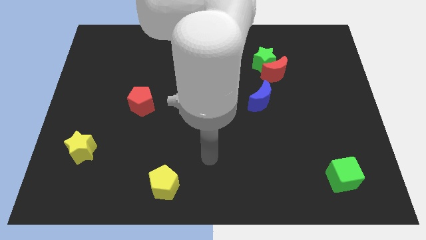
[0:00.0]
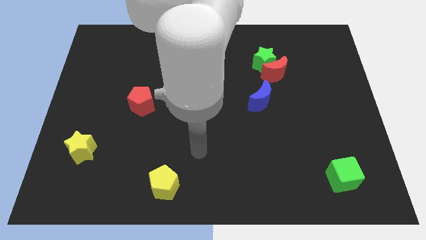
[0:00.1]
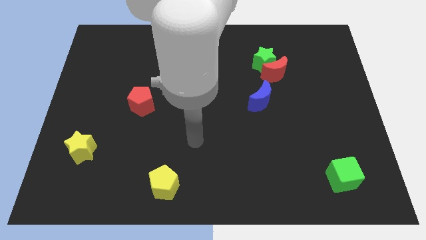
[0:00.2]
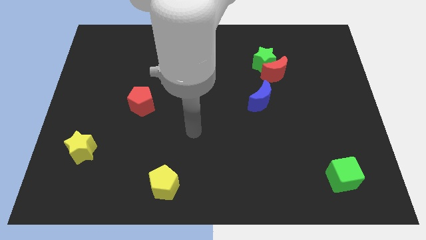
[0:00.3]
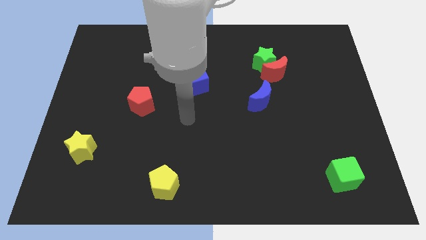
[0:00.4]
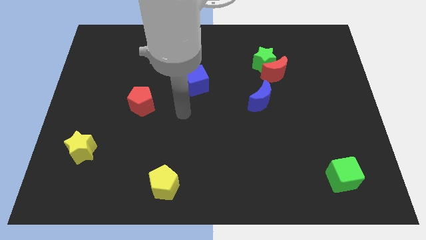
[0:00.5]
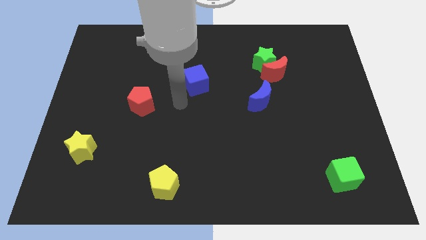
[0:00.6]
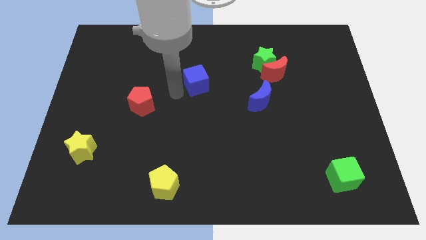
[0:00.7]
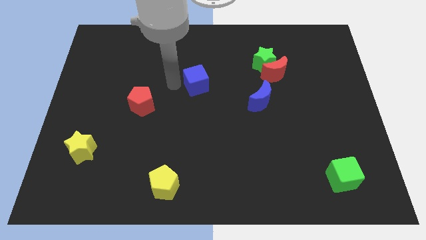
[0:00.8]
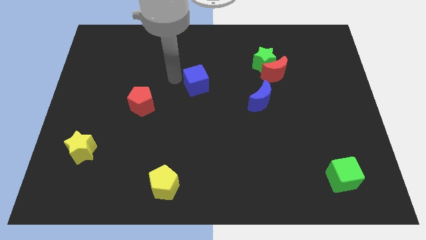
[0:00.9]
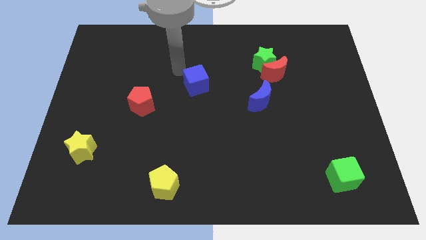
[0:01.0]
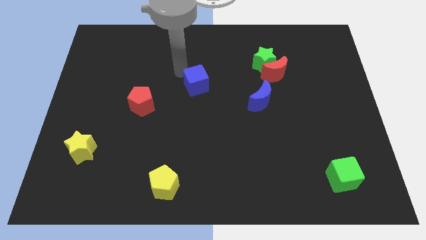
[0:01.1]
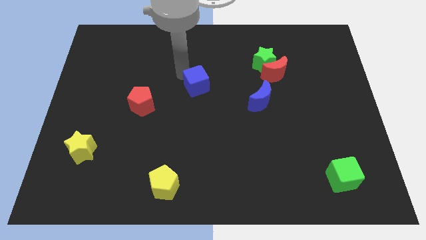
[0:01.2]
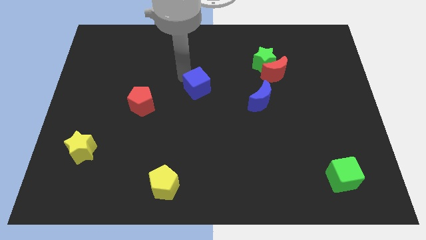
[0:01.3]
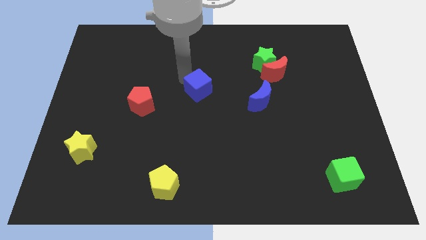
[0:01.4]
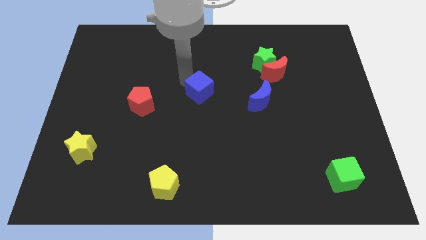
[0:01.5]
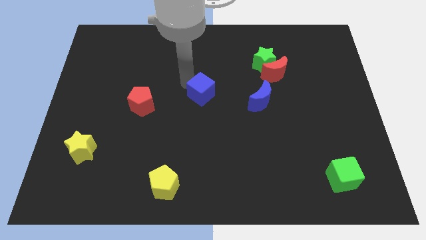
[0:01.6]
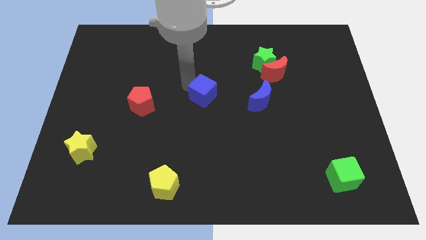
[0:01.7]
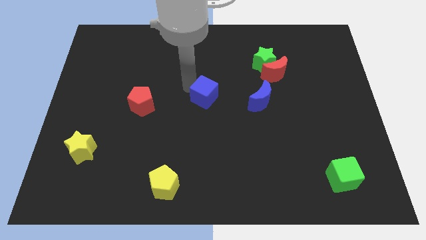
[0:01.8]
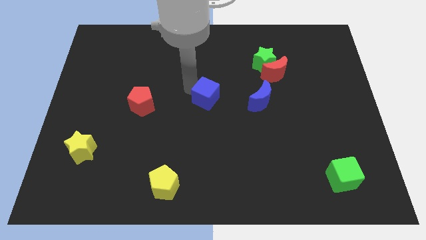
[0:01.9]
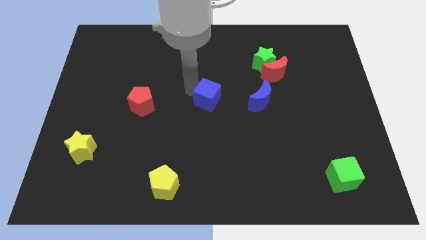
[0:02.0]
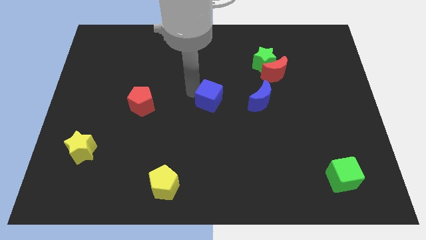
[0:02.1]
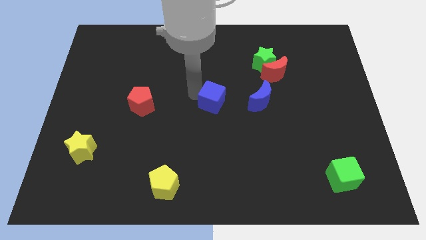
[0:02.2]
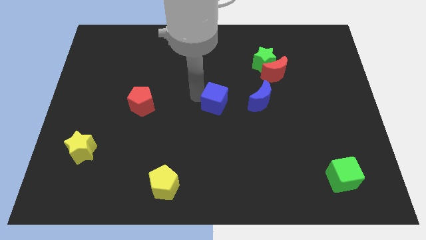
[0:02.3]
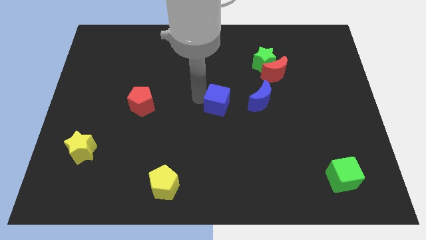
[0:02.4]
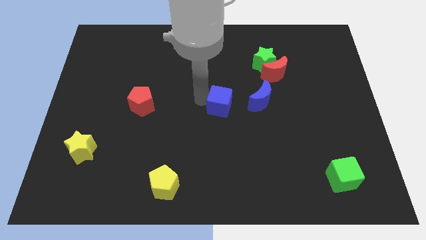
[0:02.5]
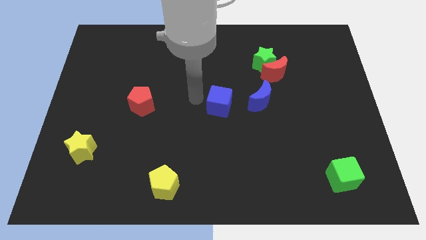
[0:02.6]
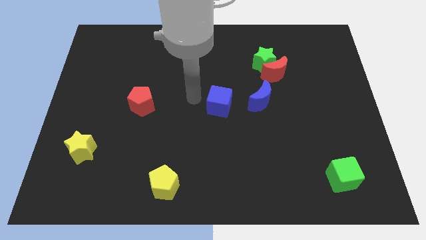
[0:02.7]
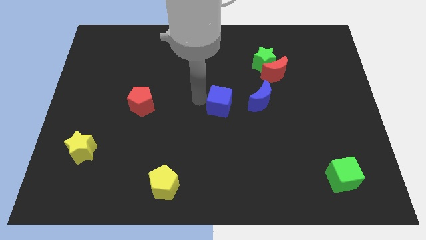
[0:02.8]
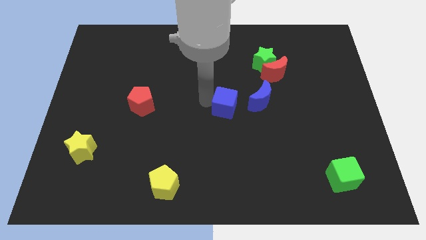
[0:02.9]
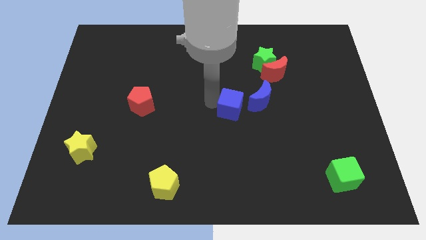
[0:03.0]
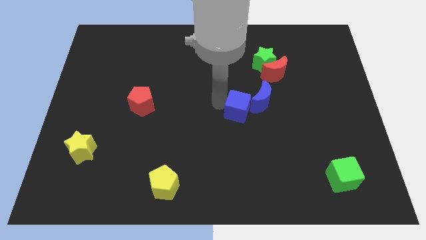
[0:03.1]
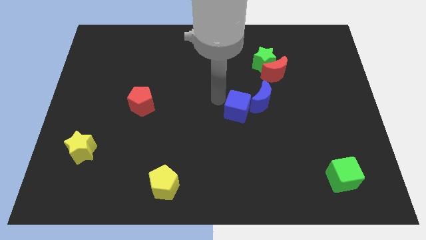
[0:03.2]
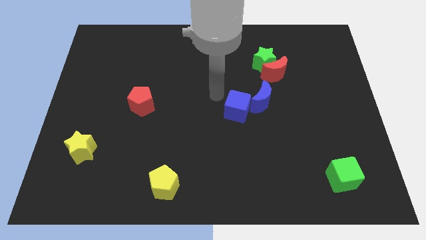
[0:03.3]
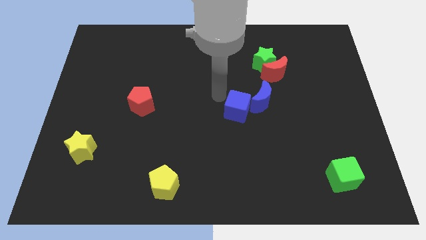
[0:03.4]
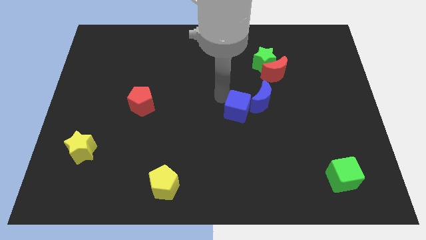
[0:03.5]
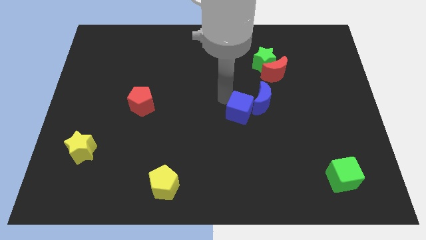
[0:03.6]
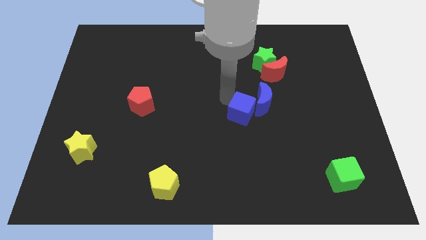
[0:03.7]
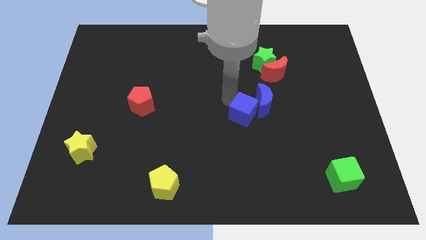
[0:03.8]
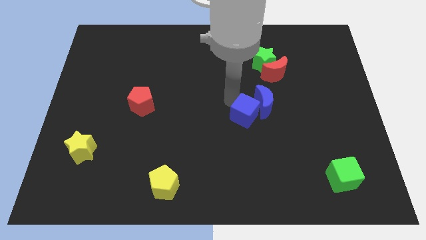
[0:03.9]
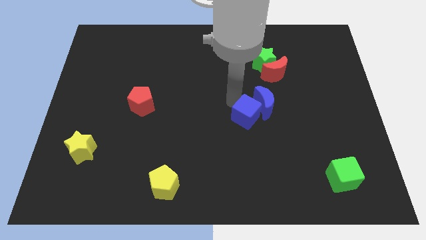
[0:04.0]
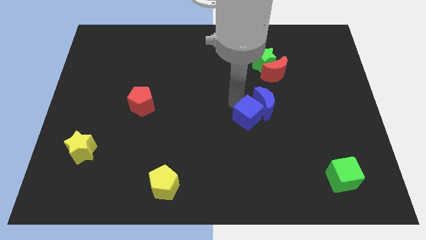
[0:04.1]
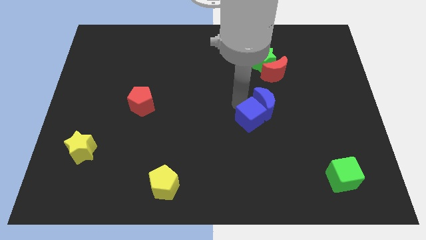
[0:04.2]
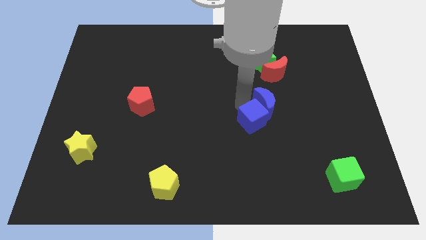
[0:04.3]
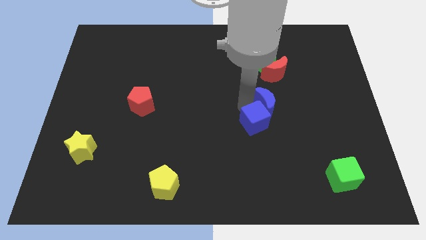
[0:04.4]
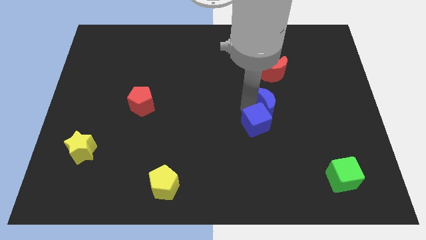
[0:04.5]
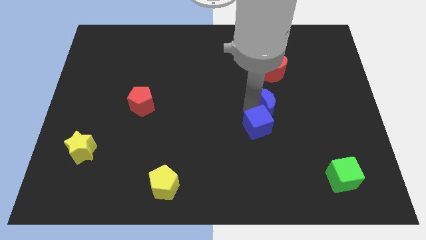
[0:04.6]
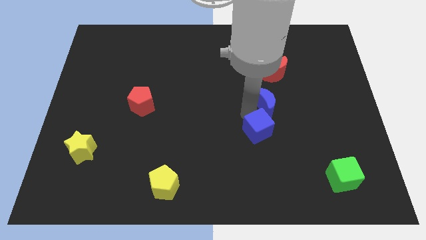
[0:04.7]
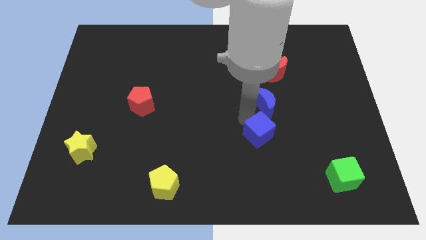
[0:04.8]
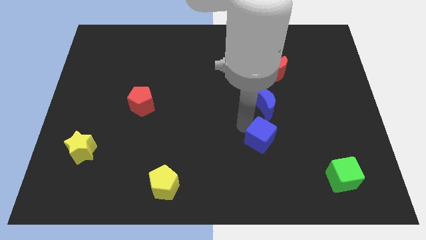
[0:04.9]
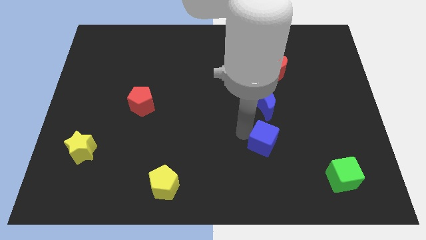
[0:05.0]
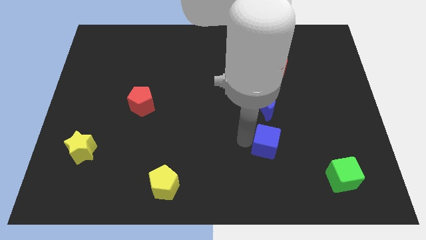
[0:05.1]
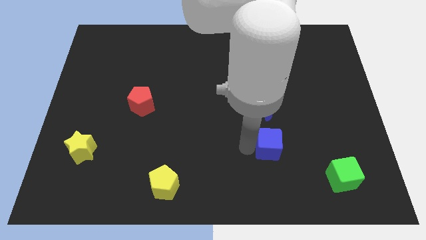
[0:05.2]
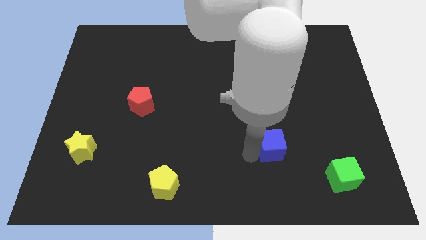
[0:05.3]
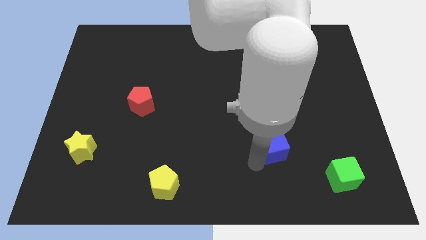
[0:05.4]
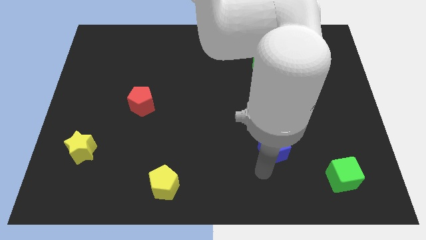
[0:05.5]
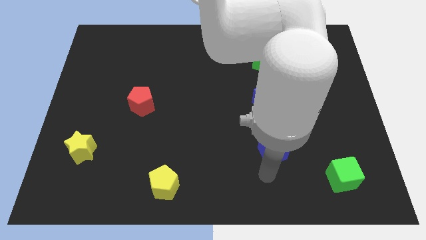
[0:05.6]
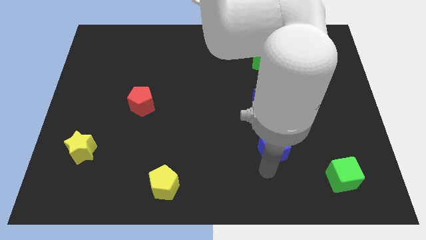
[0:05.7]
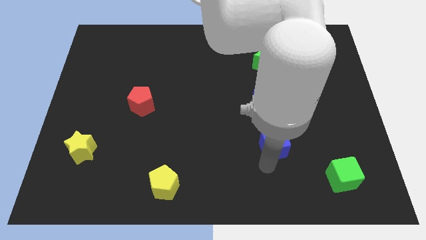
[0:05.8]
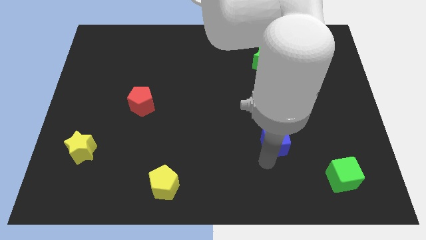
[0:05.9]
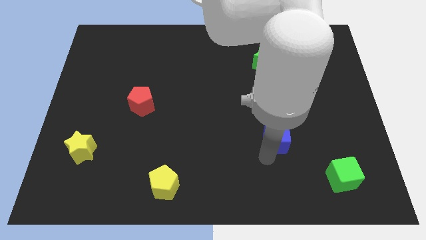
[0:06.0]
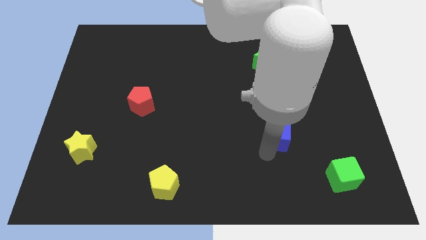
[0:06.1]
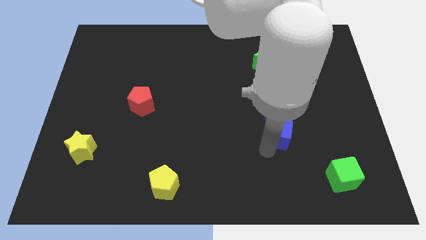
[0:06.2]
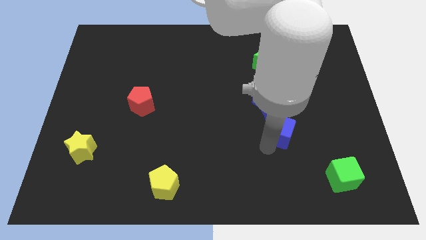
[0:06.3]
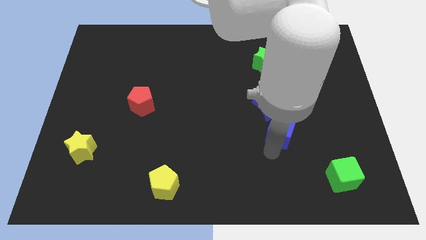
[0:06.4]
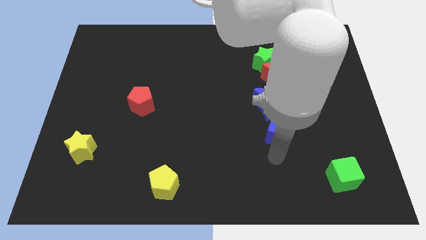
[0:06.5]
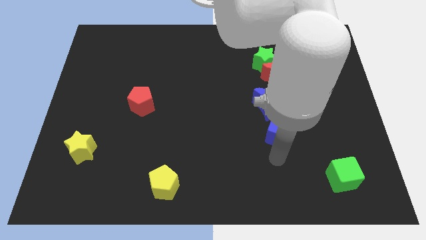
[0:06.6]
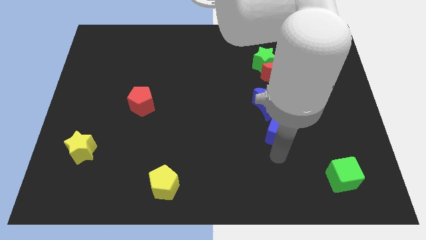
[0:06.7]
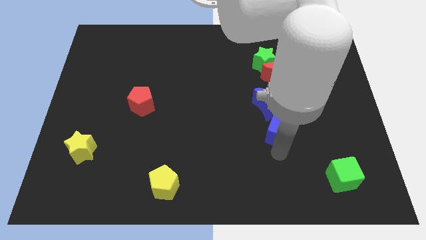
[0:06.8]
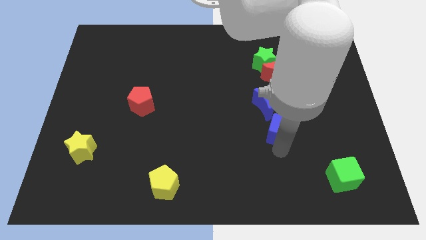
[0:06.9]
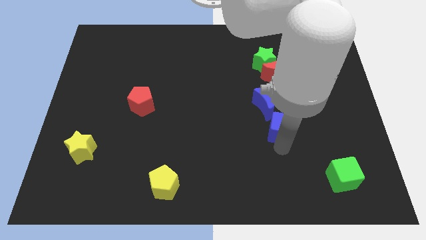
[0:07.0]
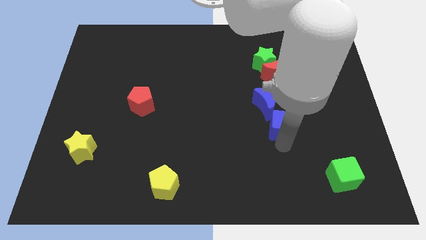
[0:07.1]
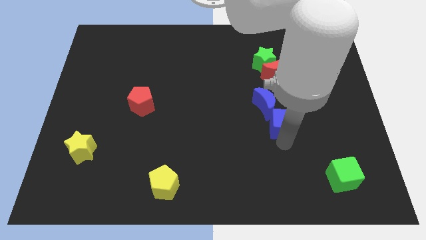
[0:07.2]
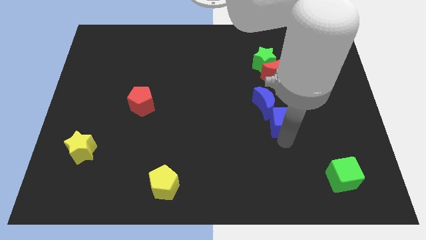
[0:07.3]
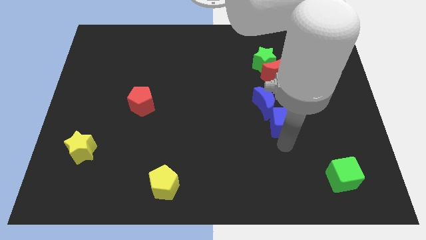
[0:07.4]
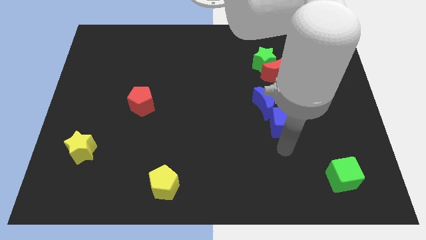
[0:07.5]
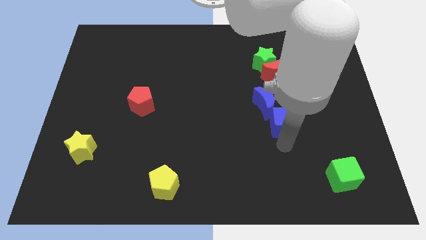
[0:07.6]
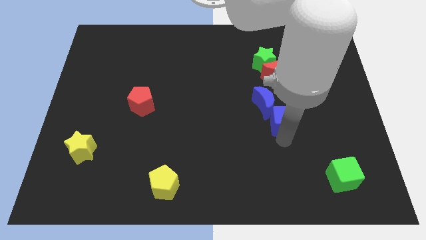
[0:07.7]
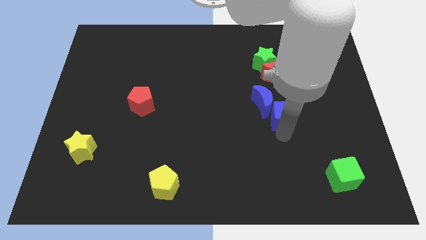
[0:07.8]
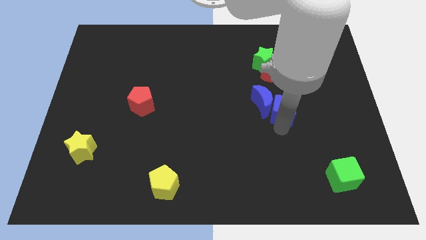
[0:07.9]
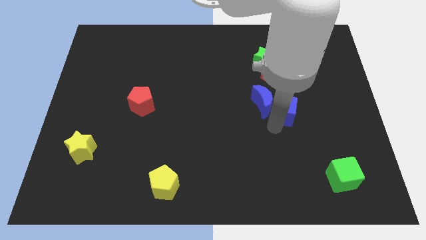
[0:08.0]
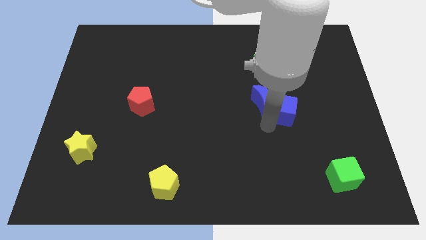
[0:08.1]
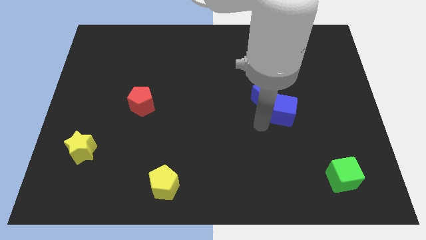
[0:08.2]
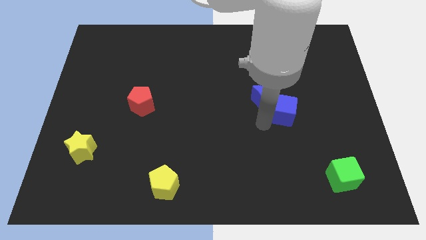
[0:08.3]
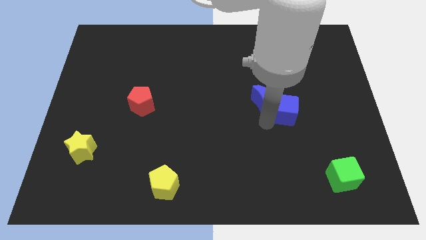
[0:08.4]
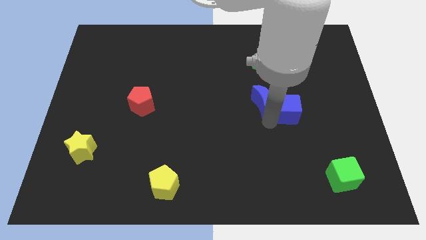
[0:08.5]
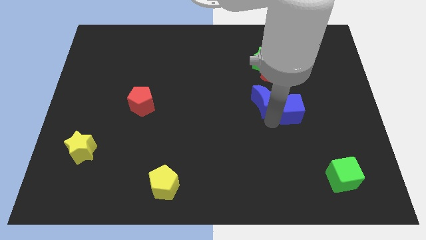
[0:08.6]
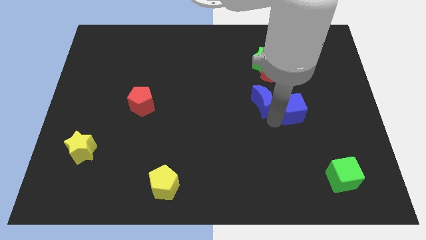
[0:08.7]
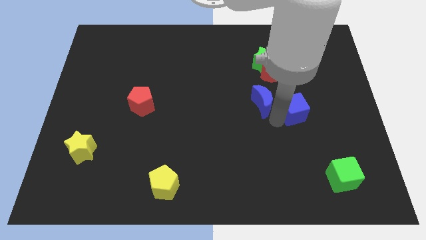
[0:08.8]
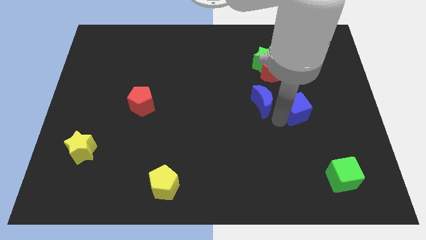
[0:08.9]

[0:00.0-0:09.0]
slide the blue cube to the right
